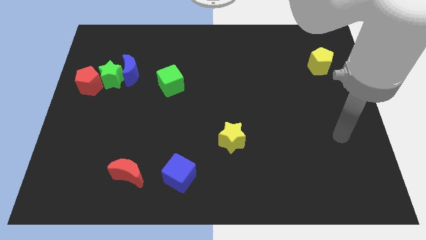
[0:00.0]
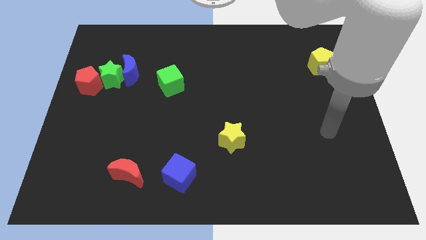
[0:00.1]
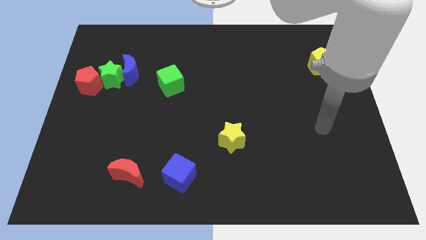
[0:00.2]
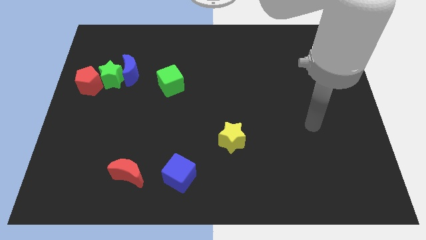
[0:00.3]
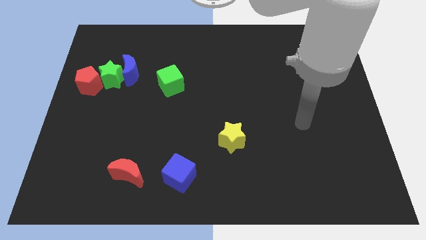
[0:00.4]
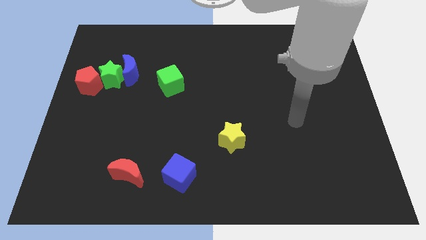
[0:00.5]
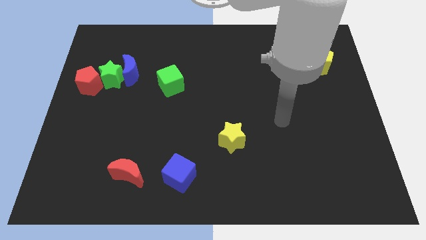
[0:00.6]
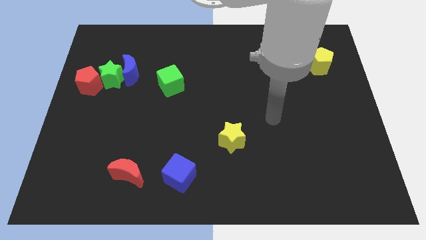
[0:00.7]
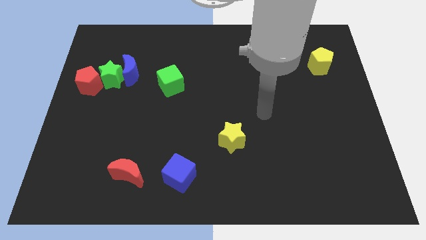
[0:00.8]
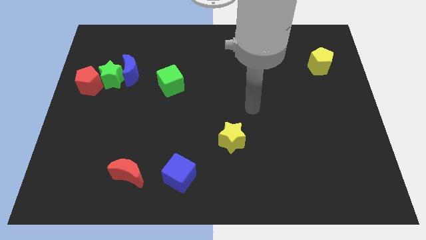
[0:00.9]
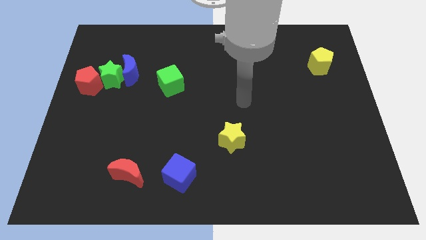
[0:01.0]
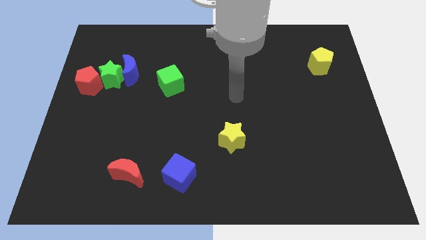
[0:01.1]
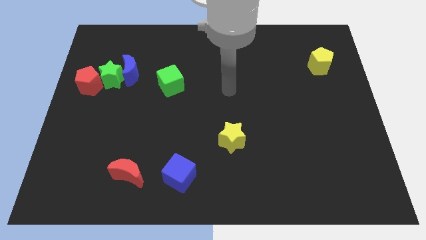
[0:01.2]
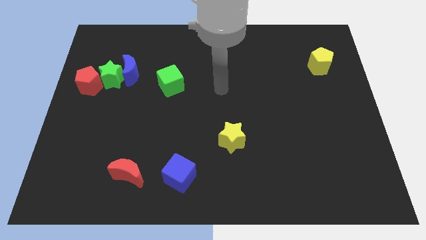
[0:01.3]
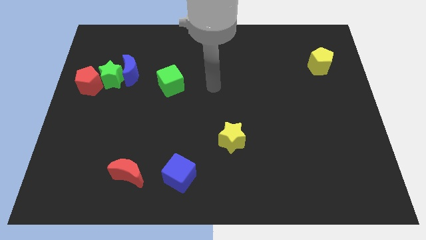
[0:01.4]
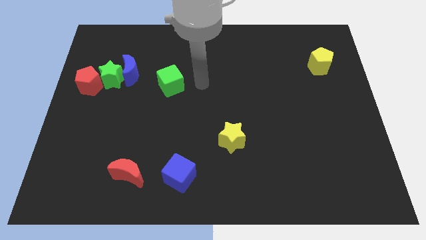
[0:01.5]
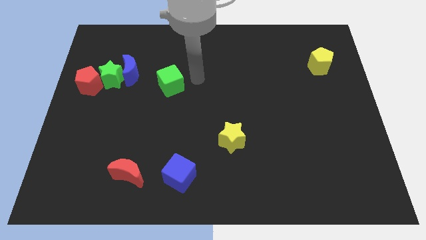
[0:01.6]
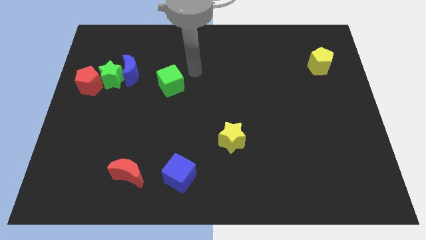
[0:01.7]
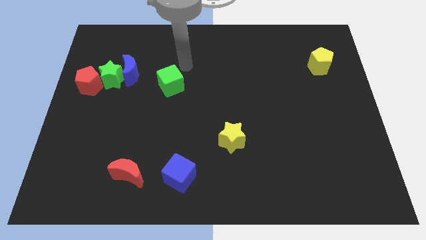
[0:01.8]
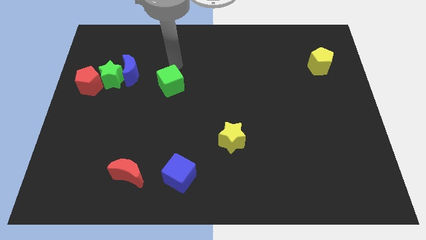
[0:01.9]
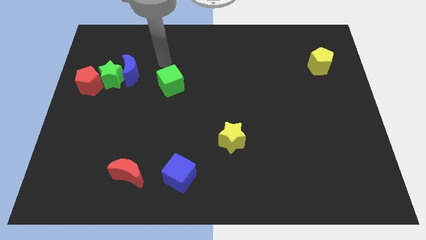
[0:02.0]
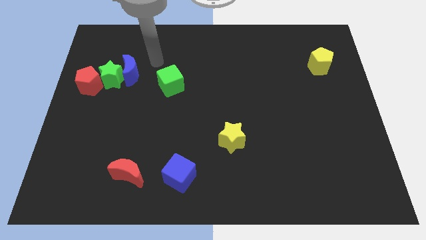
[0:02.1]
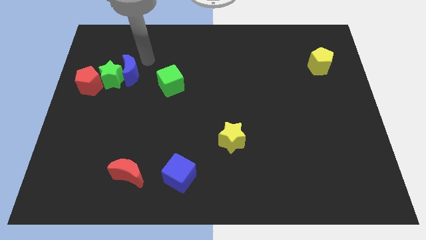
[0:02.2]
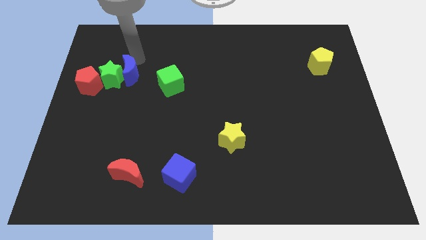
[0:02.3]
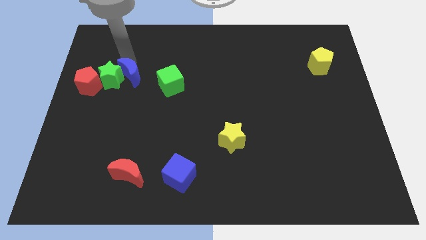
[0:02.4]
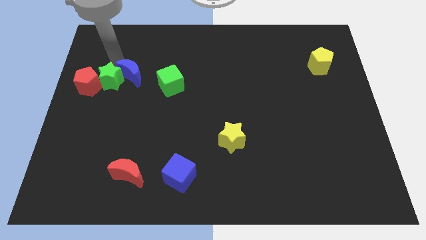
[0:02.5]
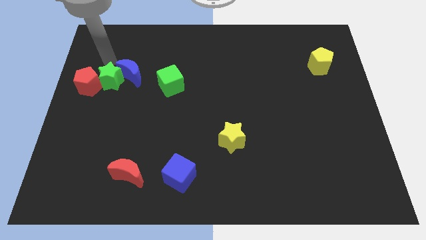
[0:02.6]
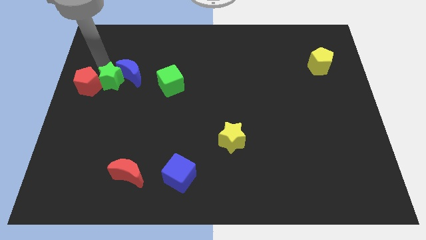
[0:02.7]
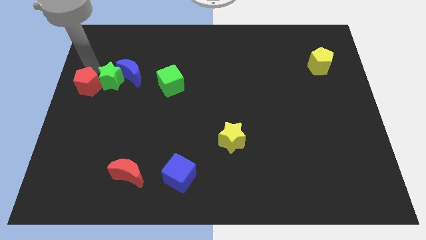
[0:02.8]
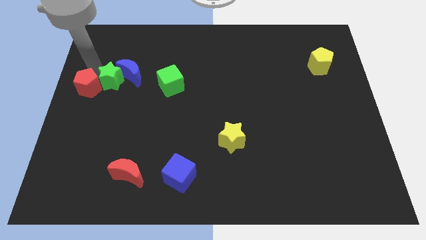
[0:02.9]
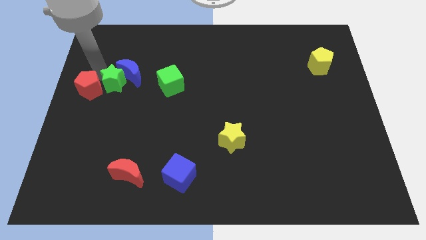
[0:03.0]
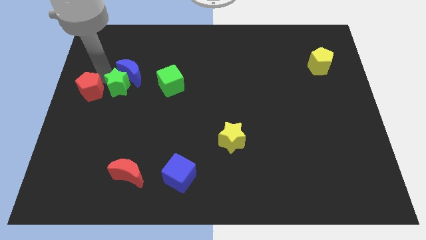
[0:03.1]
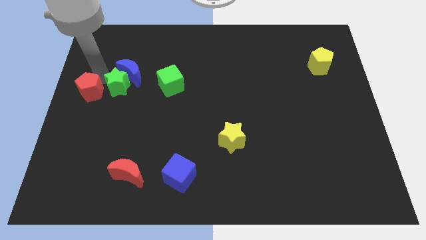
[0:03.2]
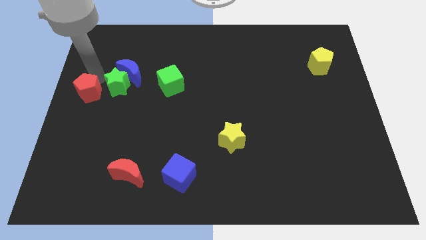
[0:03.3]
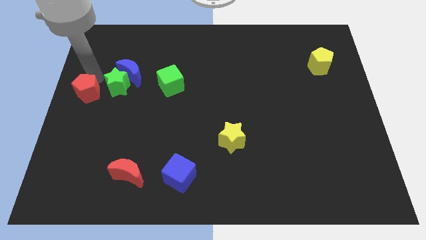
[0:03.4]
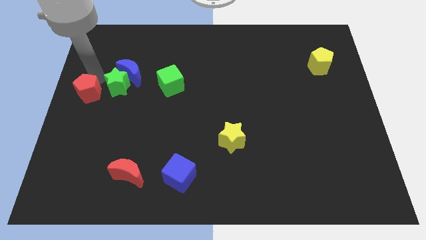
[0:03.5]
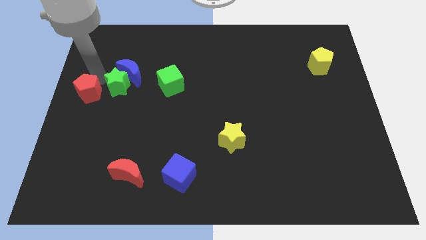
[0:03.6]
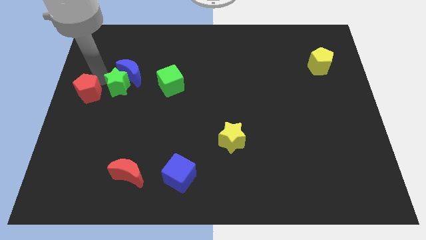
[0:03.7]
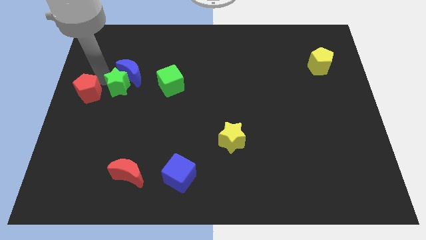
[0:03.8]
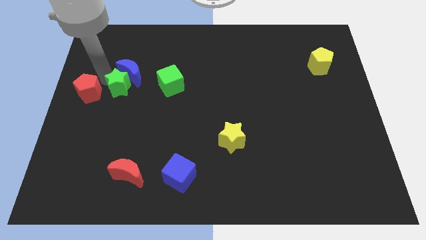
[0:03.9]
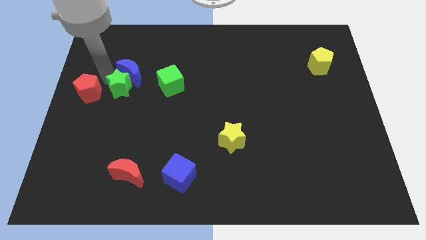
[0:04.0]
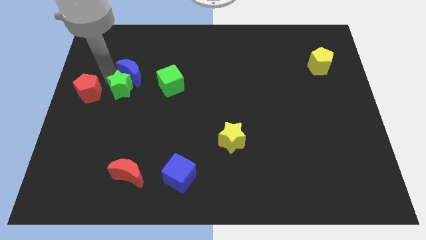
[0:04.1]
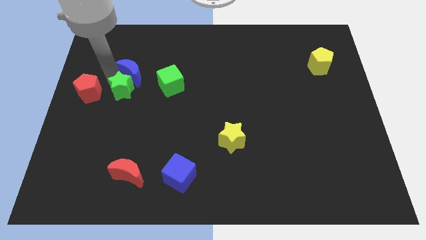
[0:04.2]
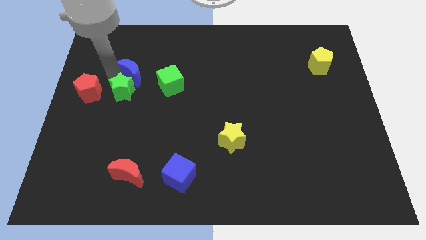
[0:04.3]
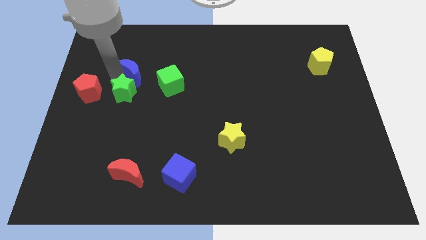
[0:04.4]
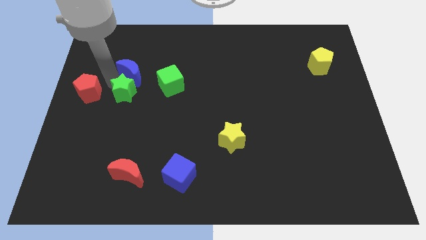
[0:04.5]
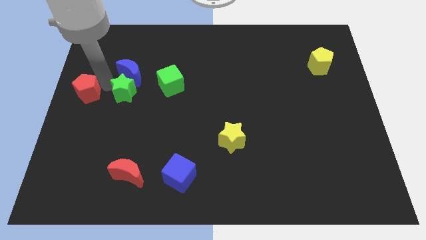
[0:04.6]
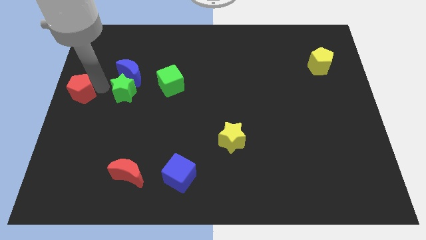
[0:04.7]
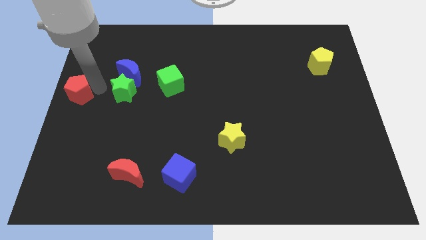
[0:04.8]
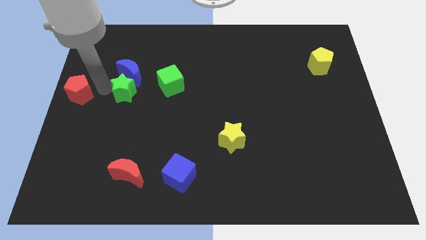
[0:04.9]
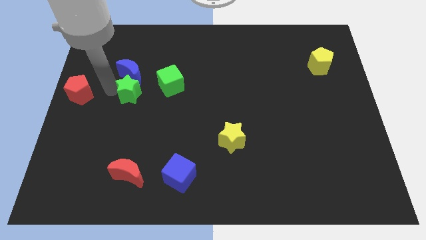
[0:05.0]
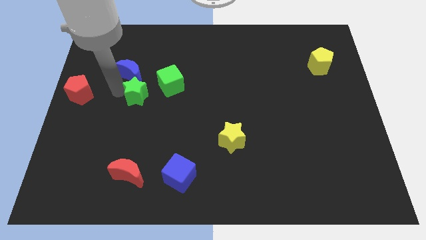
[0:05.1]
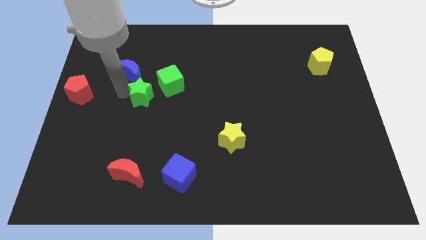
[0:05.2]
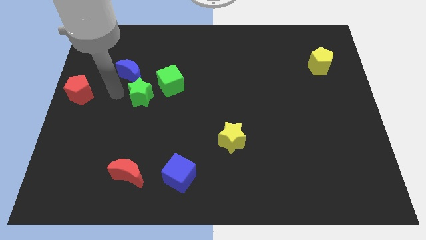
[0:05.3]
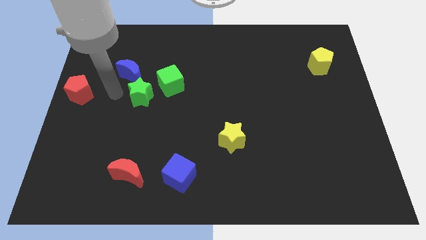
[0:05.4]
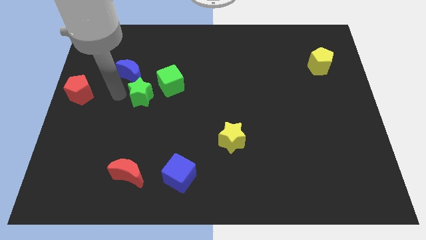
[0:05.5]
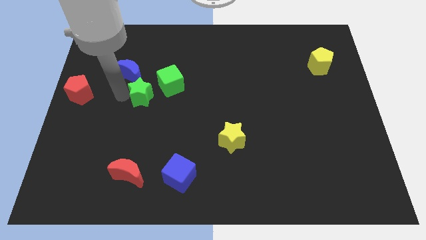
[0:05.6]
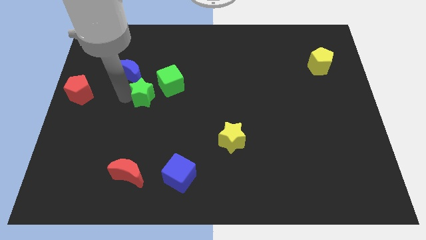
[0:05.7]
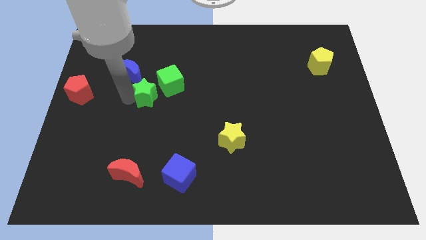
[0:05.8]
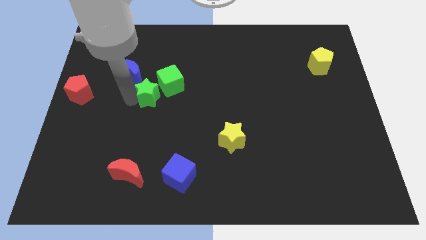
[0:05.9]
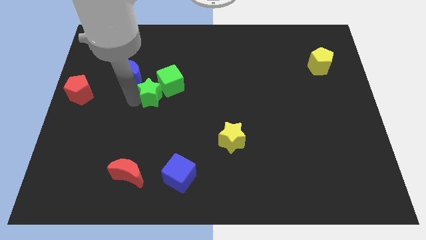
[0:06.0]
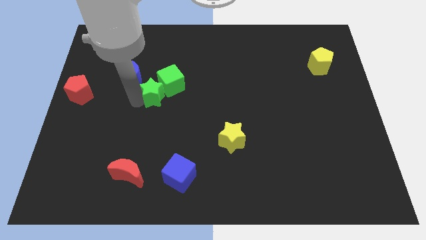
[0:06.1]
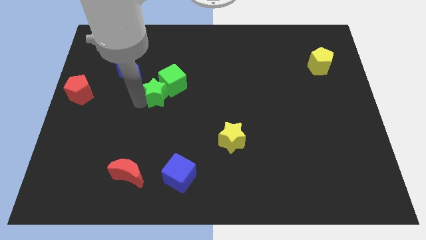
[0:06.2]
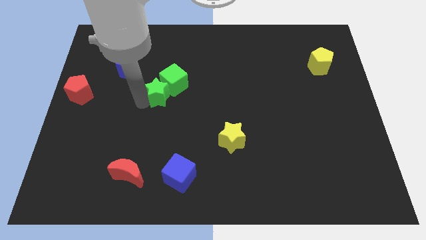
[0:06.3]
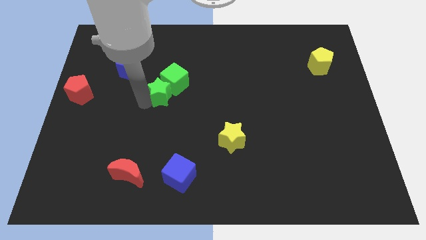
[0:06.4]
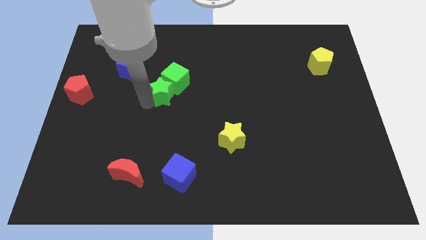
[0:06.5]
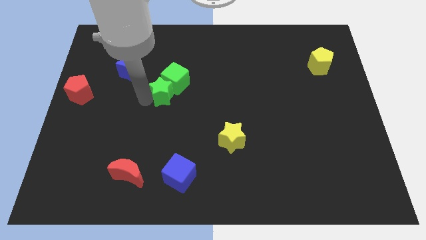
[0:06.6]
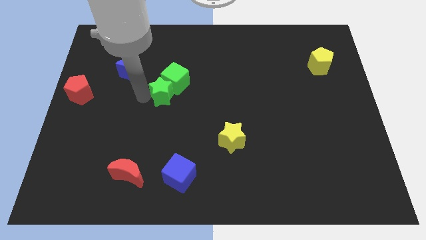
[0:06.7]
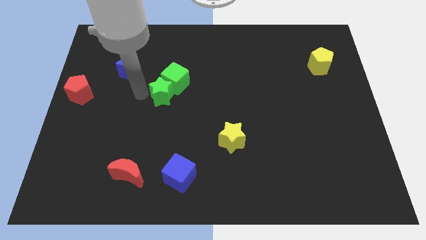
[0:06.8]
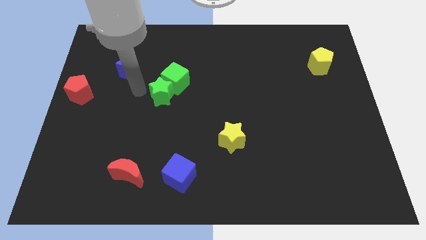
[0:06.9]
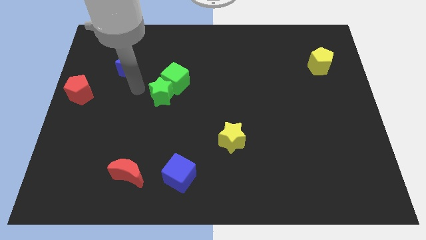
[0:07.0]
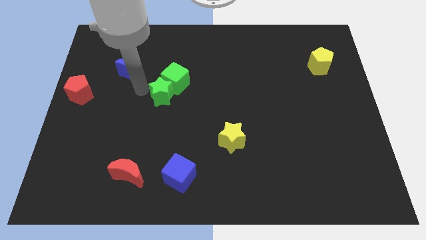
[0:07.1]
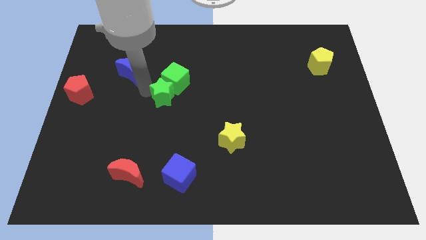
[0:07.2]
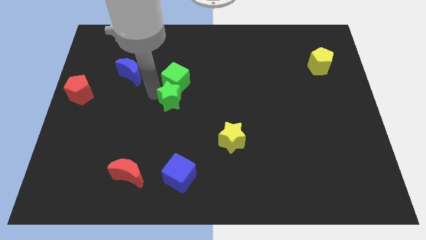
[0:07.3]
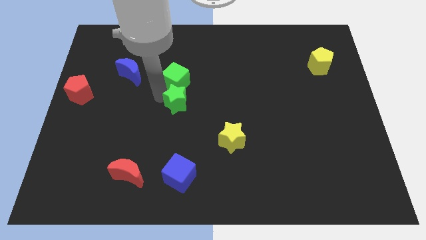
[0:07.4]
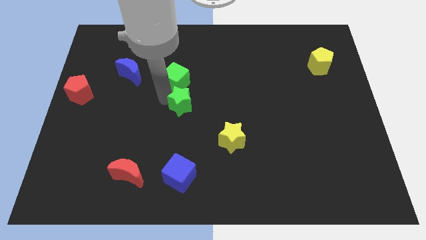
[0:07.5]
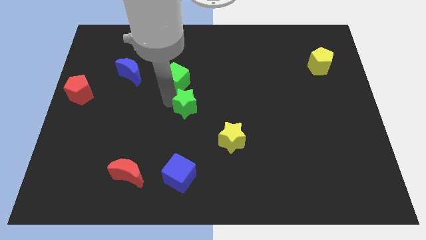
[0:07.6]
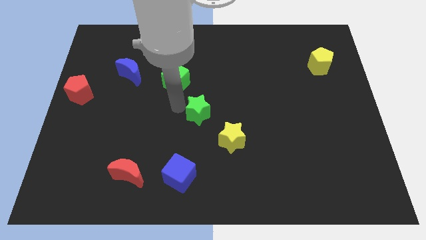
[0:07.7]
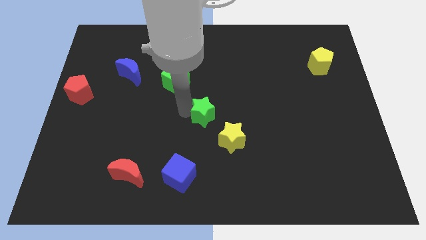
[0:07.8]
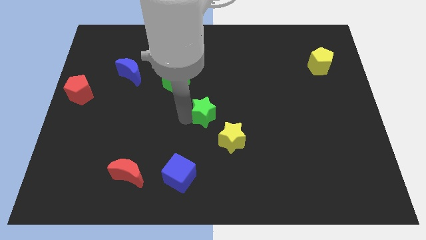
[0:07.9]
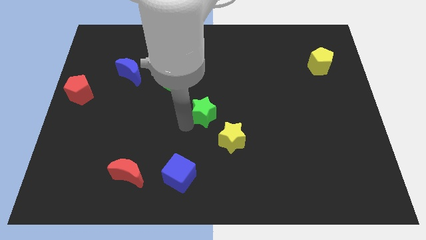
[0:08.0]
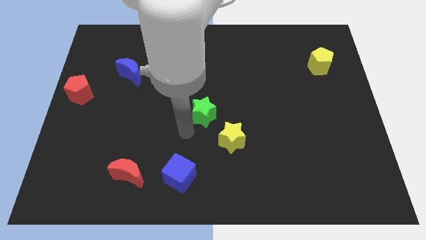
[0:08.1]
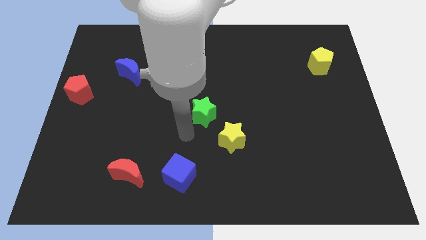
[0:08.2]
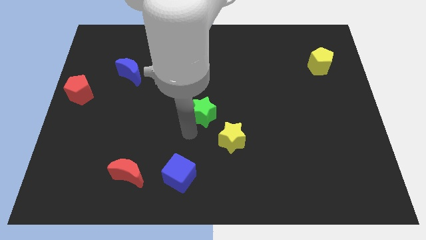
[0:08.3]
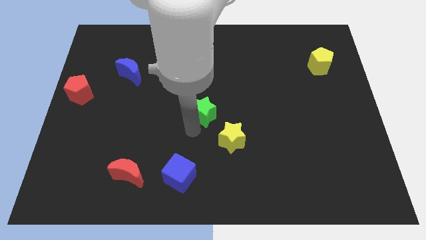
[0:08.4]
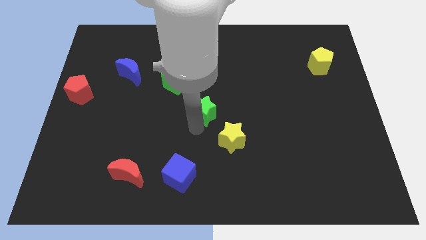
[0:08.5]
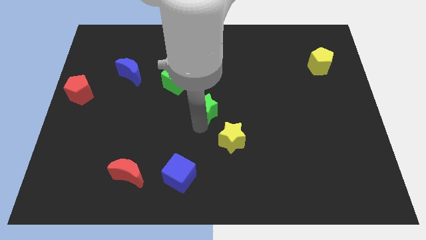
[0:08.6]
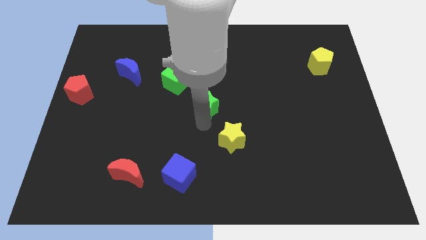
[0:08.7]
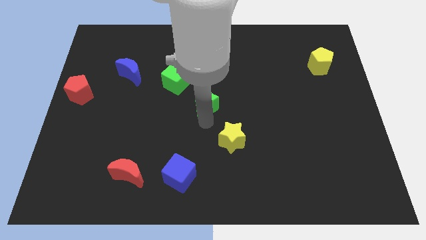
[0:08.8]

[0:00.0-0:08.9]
slide the green star right
